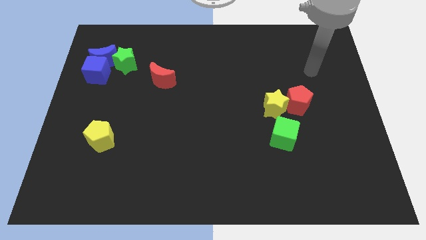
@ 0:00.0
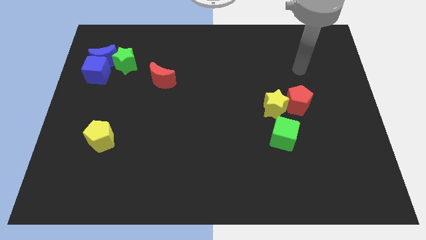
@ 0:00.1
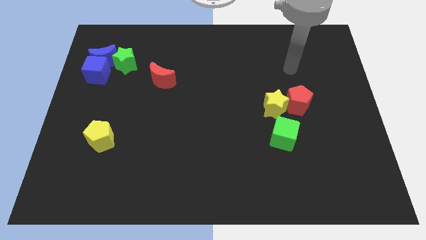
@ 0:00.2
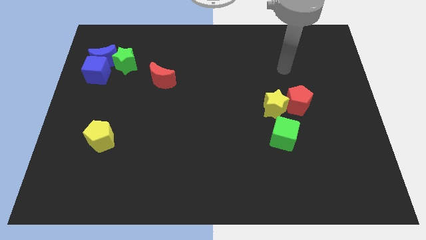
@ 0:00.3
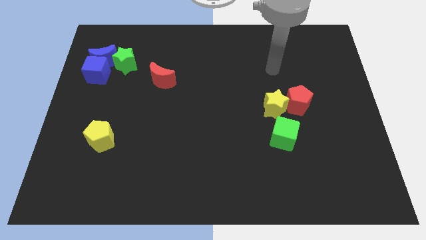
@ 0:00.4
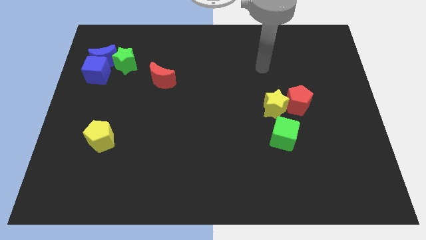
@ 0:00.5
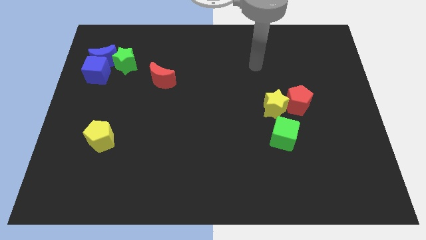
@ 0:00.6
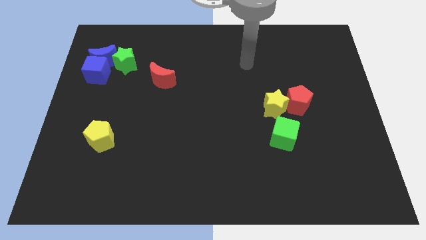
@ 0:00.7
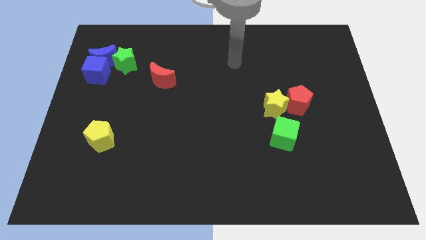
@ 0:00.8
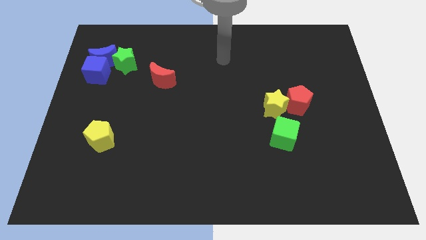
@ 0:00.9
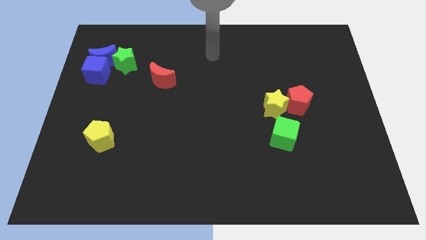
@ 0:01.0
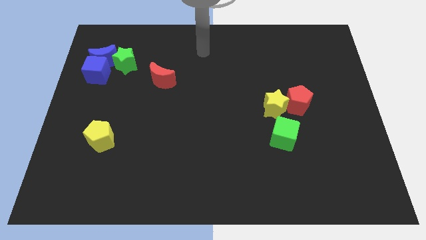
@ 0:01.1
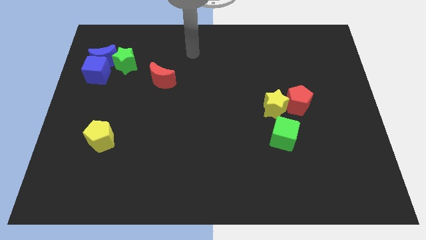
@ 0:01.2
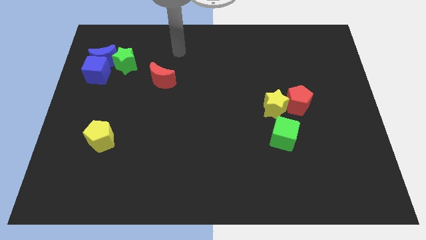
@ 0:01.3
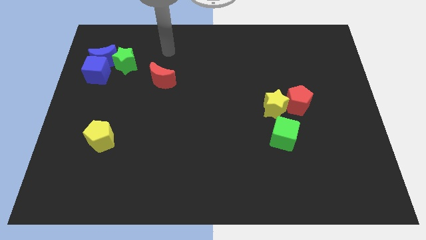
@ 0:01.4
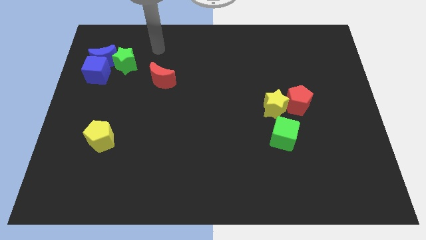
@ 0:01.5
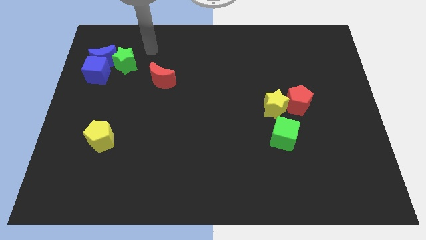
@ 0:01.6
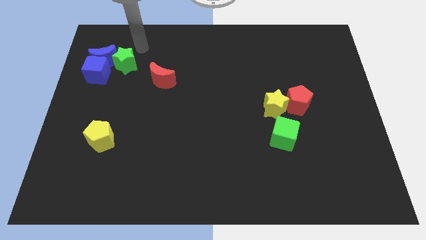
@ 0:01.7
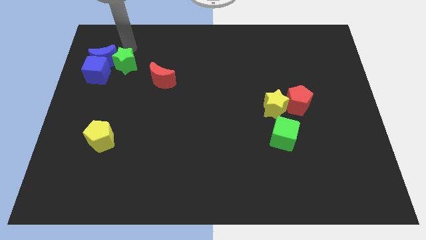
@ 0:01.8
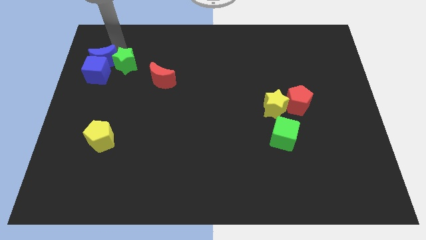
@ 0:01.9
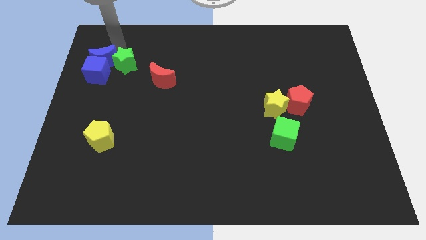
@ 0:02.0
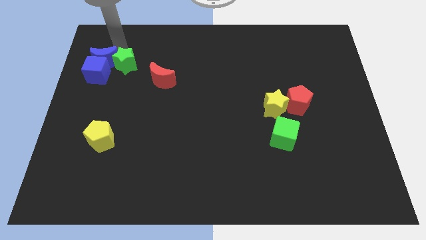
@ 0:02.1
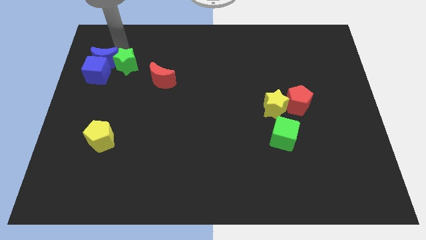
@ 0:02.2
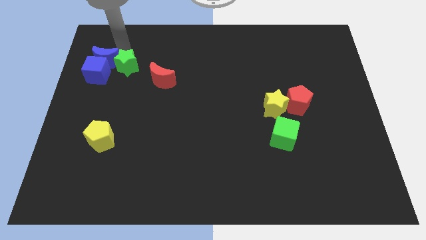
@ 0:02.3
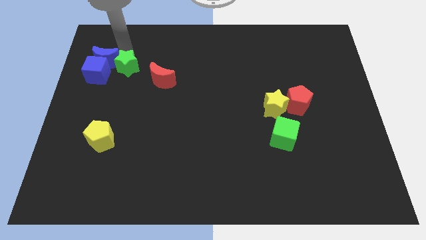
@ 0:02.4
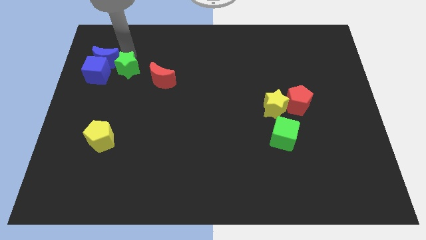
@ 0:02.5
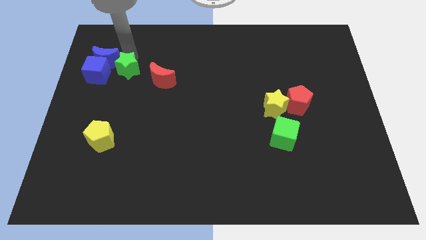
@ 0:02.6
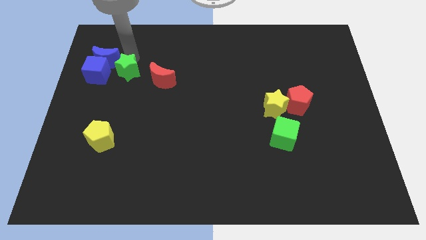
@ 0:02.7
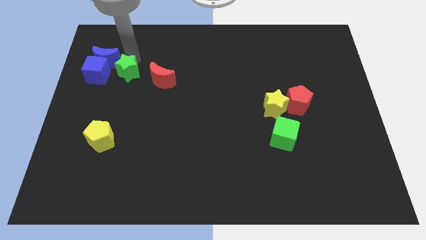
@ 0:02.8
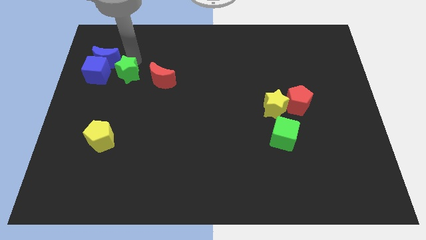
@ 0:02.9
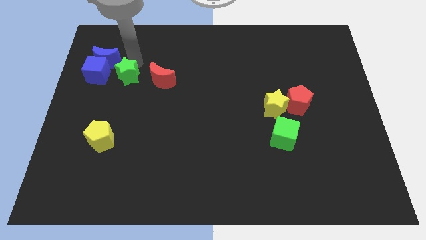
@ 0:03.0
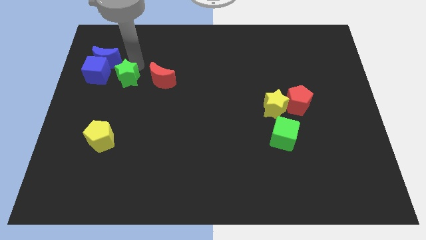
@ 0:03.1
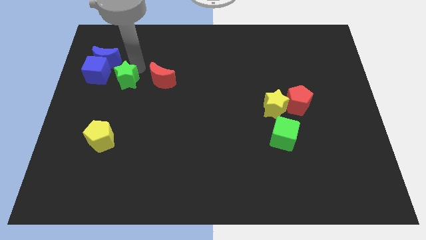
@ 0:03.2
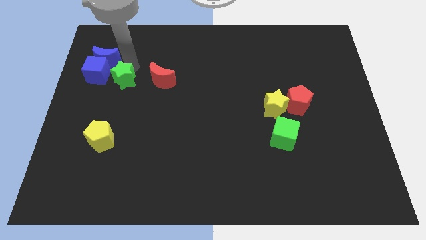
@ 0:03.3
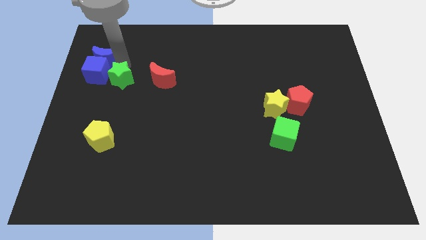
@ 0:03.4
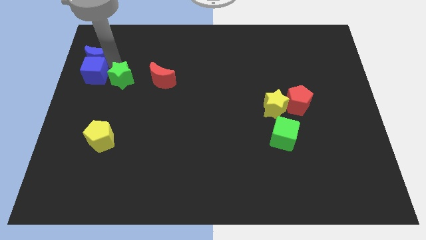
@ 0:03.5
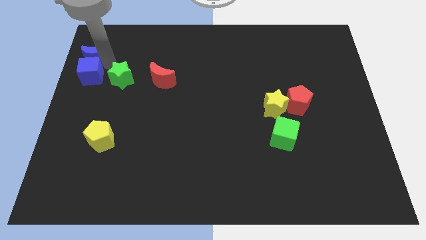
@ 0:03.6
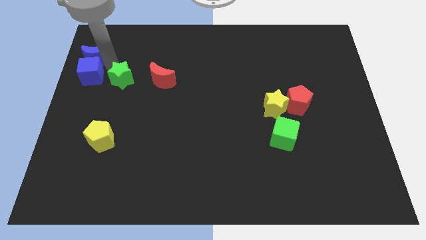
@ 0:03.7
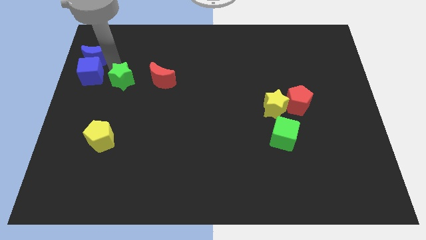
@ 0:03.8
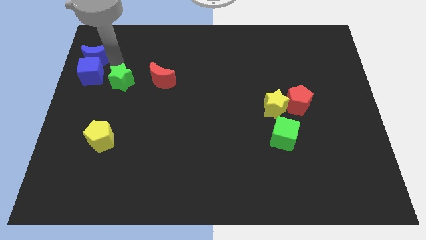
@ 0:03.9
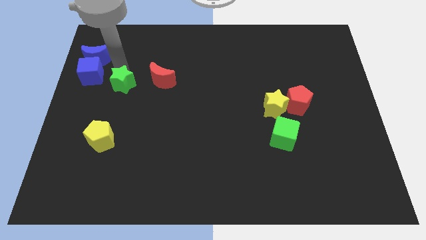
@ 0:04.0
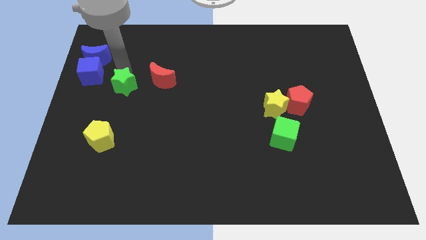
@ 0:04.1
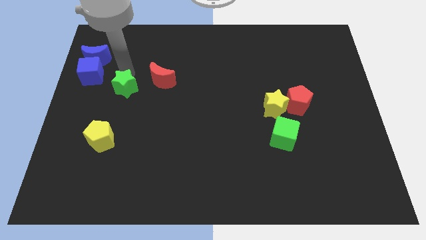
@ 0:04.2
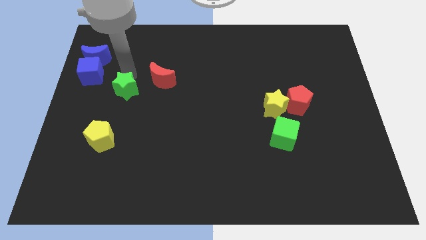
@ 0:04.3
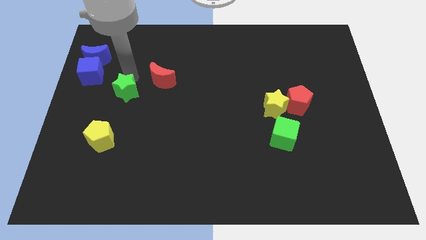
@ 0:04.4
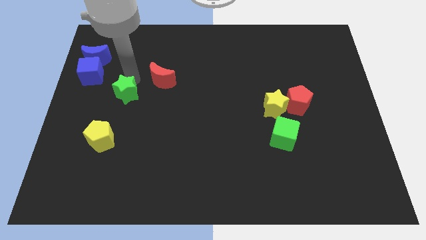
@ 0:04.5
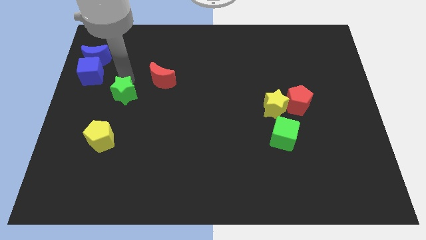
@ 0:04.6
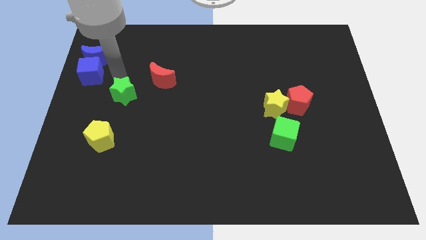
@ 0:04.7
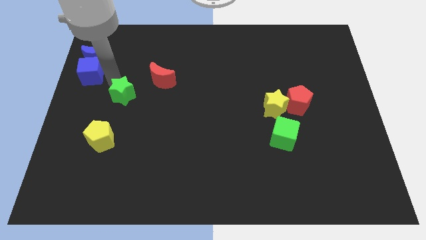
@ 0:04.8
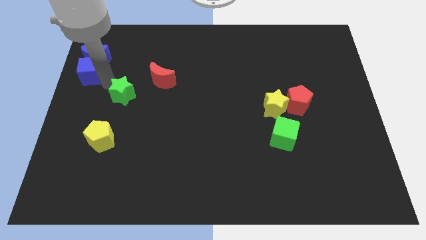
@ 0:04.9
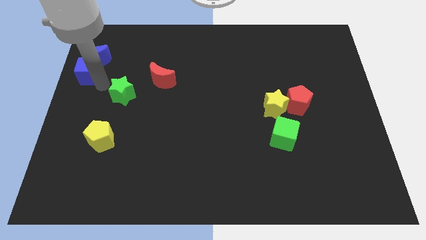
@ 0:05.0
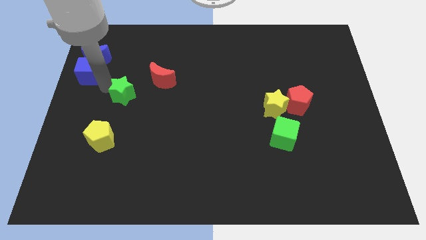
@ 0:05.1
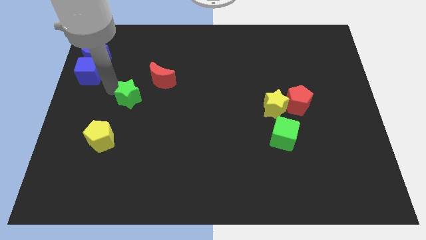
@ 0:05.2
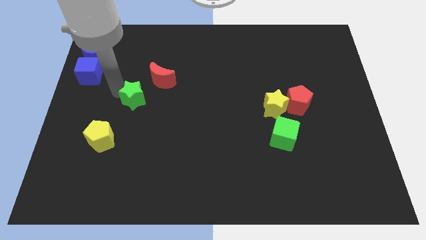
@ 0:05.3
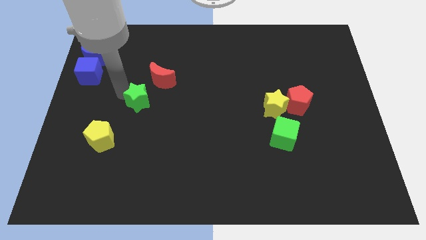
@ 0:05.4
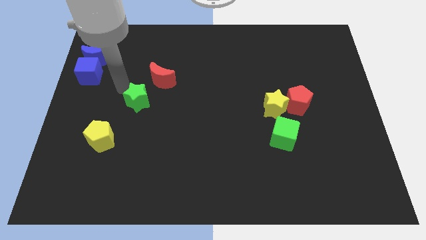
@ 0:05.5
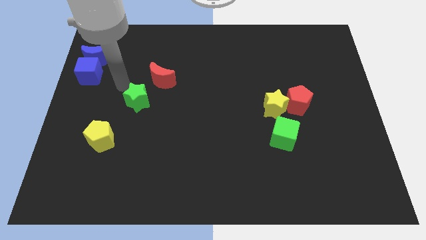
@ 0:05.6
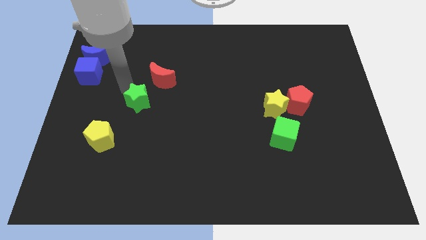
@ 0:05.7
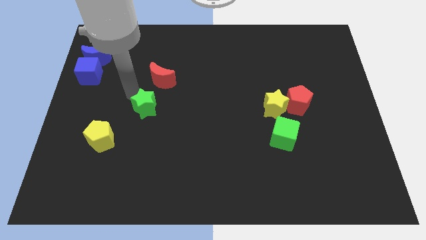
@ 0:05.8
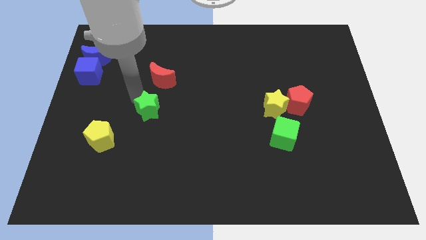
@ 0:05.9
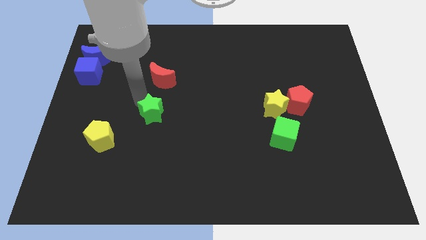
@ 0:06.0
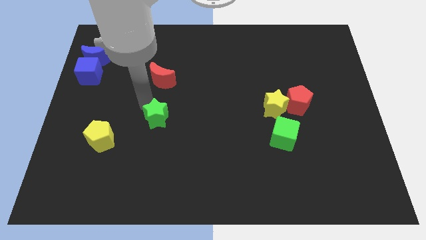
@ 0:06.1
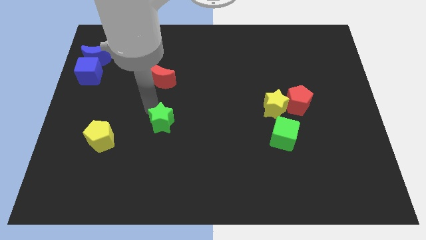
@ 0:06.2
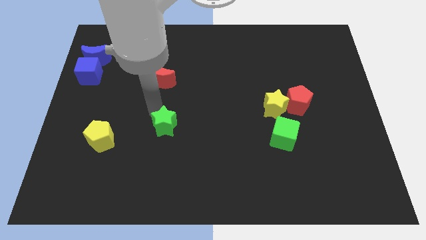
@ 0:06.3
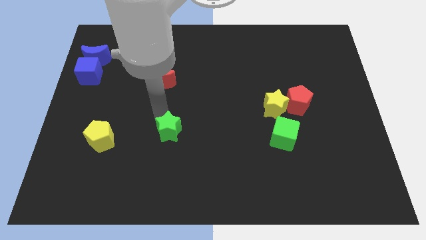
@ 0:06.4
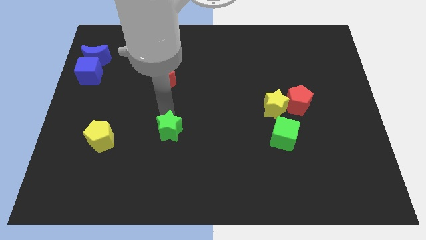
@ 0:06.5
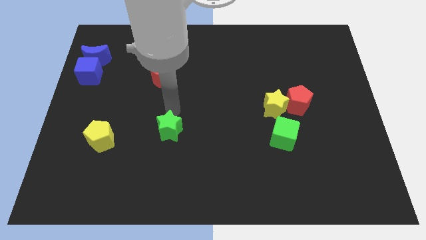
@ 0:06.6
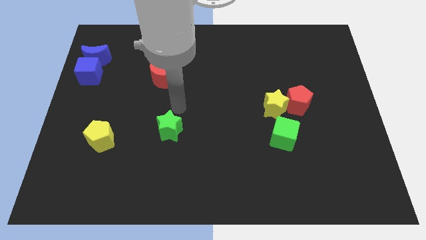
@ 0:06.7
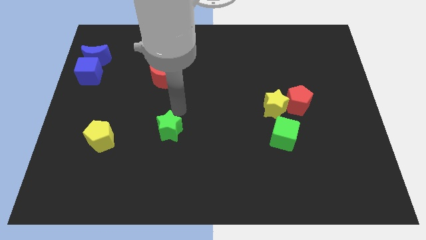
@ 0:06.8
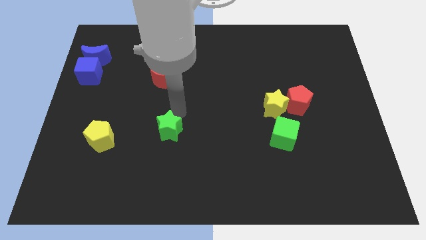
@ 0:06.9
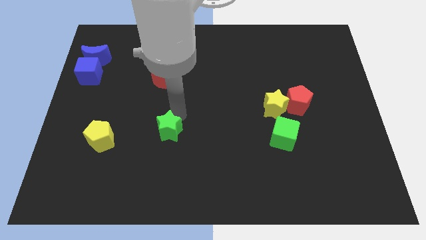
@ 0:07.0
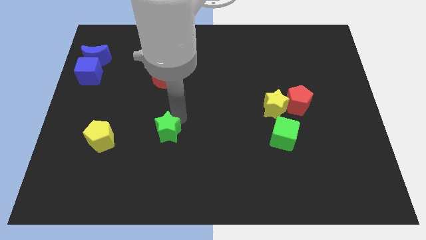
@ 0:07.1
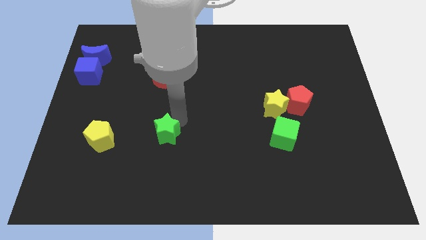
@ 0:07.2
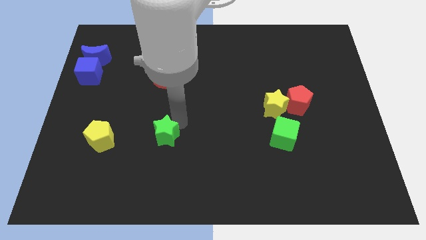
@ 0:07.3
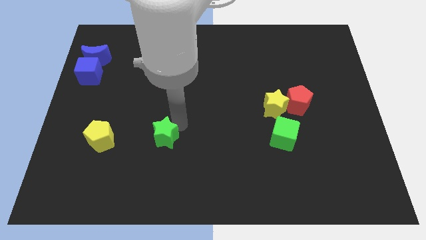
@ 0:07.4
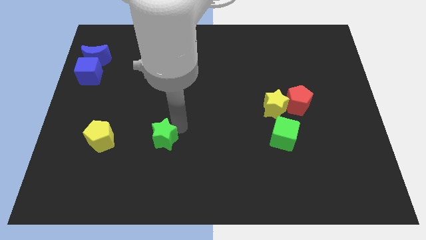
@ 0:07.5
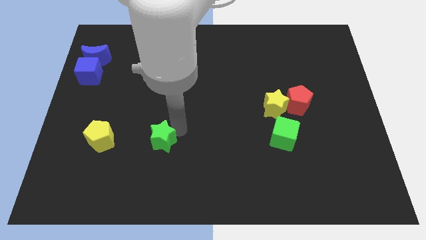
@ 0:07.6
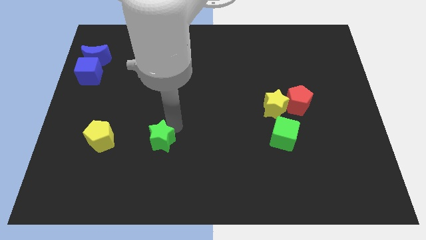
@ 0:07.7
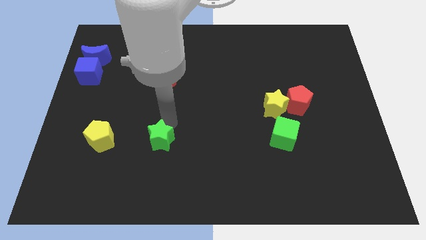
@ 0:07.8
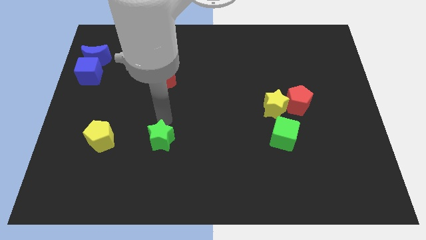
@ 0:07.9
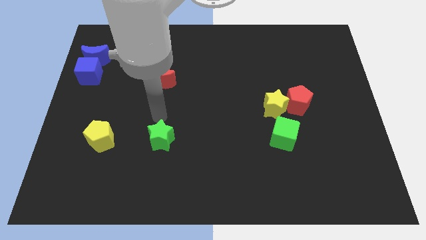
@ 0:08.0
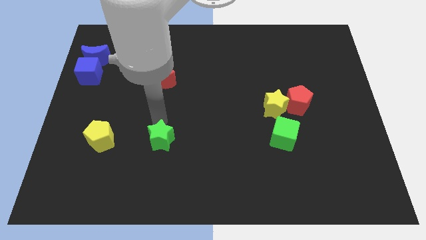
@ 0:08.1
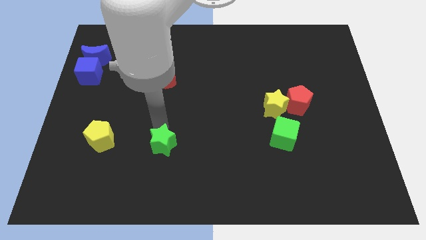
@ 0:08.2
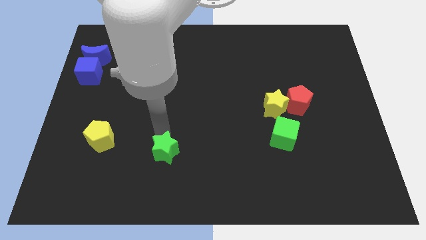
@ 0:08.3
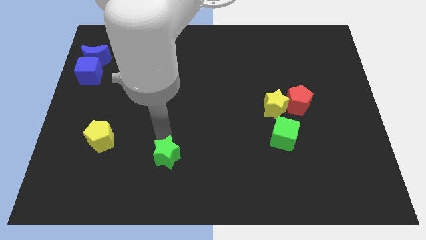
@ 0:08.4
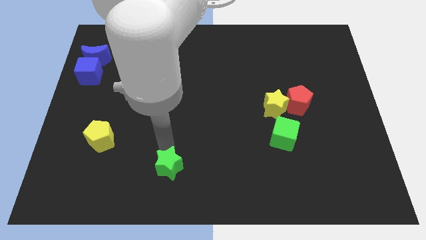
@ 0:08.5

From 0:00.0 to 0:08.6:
put the green star to the bottom
